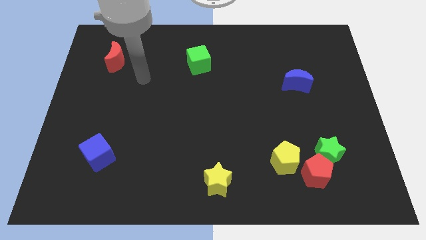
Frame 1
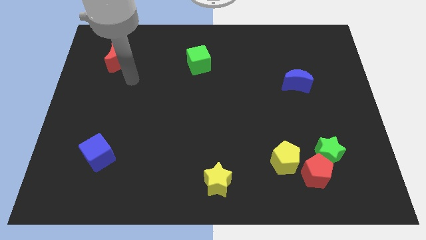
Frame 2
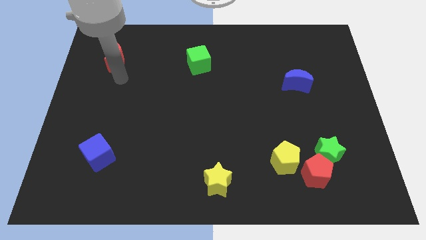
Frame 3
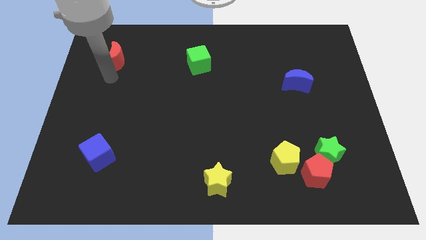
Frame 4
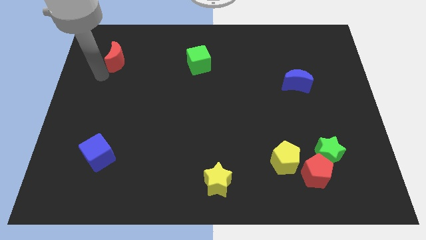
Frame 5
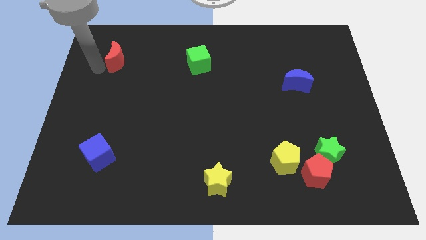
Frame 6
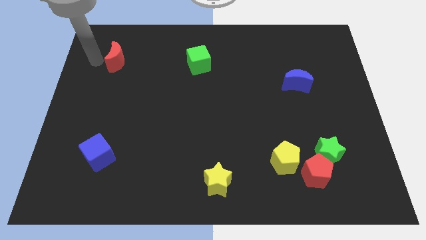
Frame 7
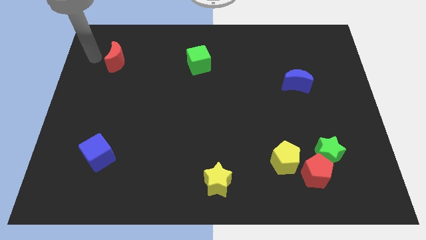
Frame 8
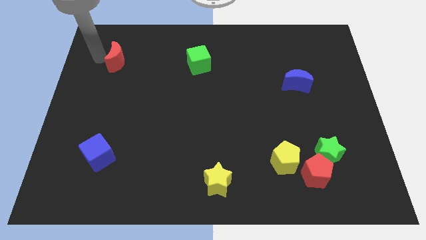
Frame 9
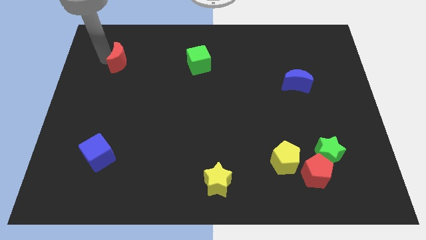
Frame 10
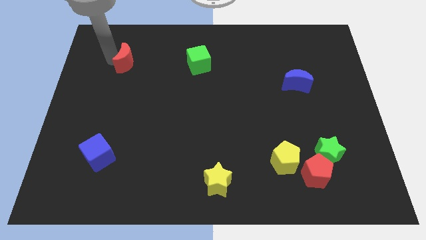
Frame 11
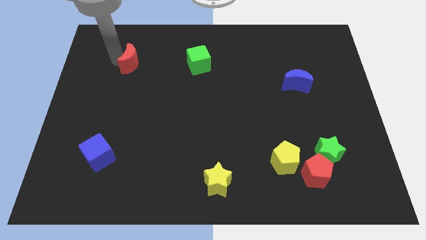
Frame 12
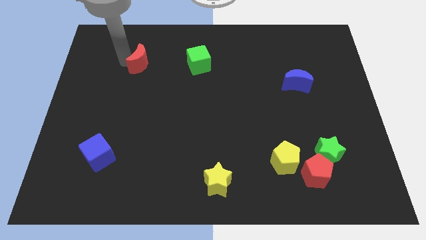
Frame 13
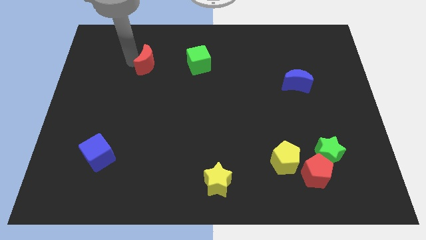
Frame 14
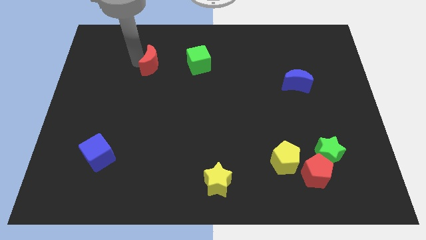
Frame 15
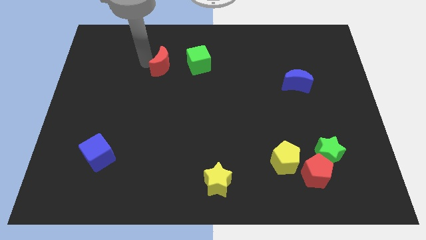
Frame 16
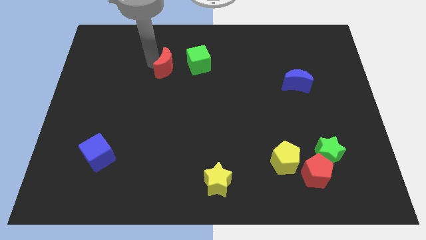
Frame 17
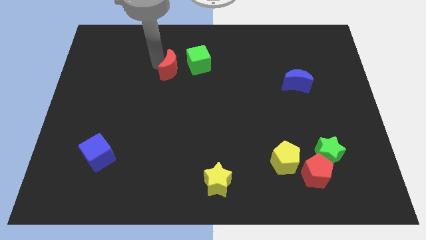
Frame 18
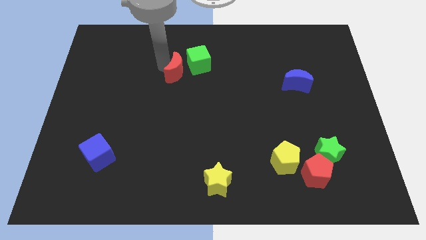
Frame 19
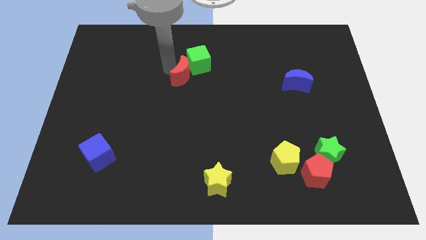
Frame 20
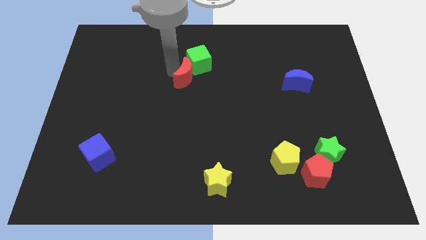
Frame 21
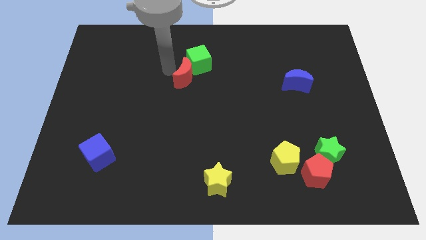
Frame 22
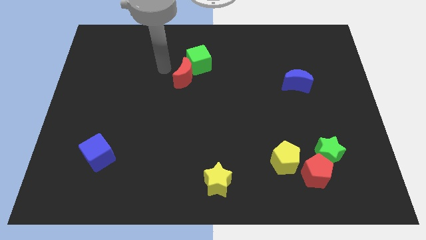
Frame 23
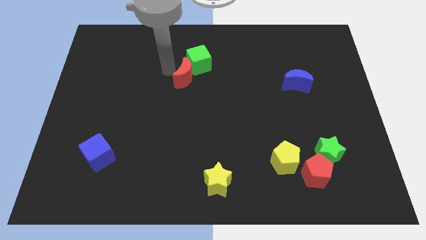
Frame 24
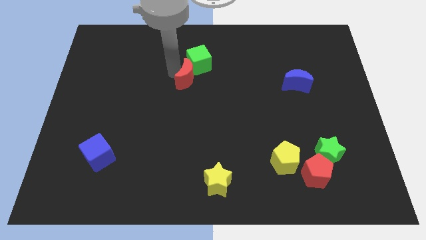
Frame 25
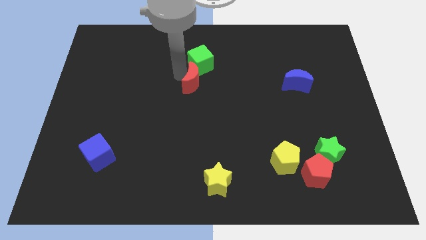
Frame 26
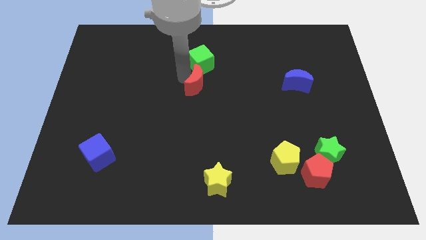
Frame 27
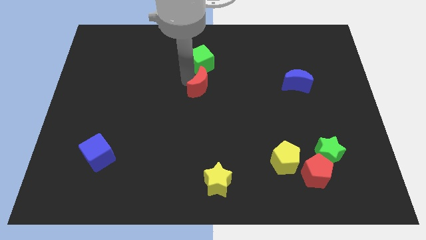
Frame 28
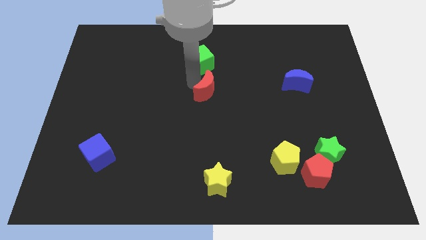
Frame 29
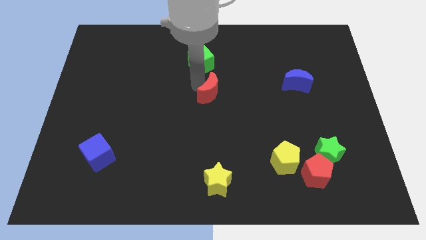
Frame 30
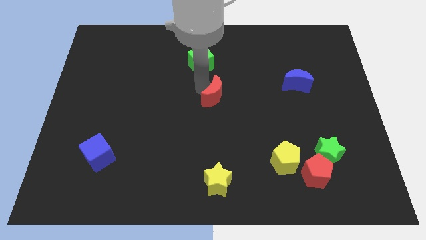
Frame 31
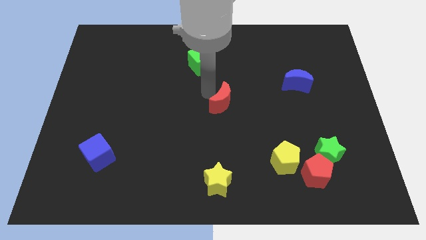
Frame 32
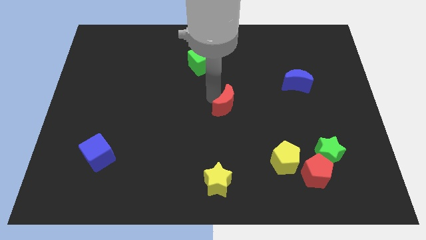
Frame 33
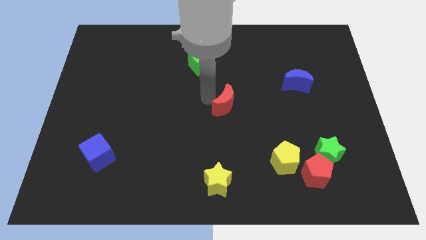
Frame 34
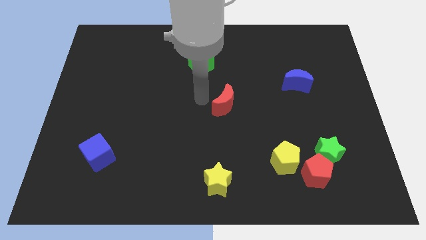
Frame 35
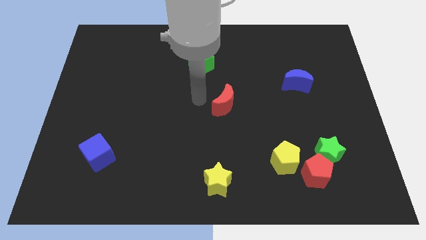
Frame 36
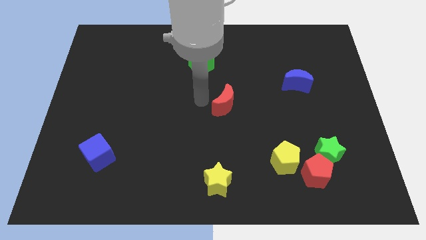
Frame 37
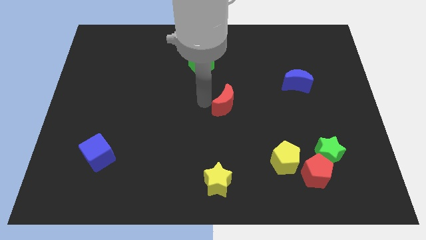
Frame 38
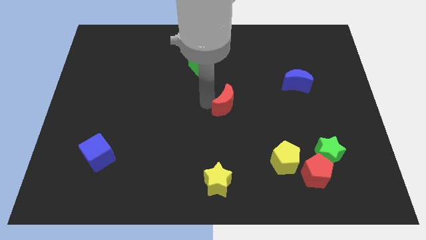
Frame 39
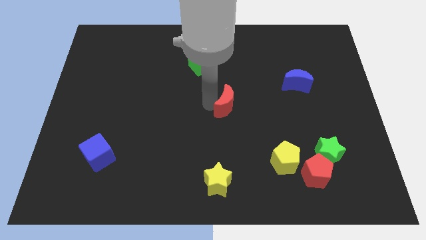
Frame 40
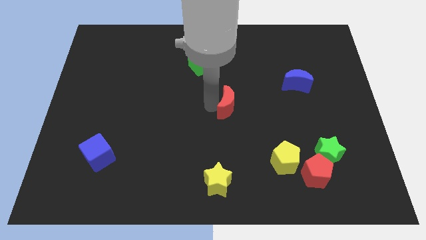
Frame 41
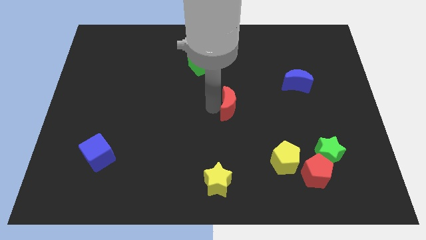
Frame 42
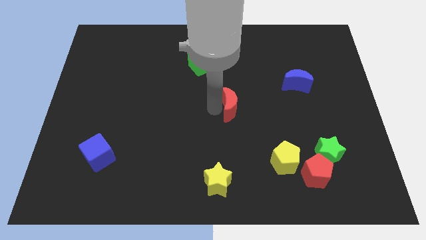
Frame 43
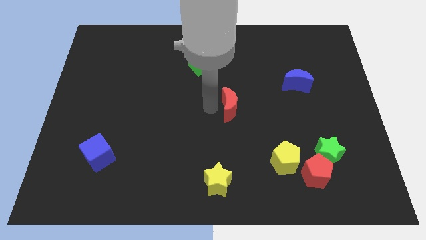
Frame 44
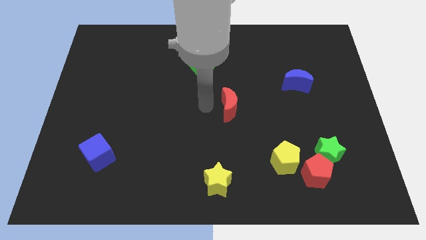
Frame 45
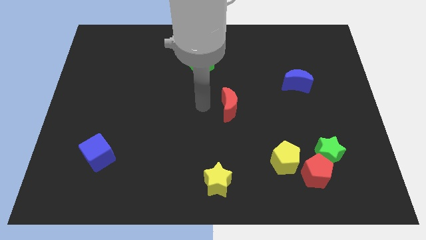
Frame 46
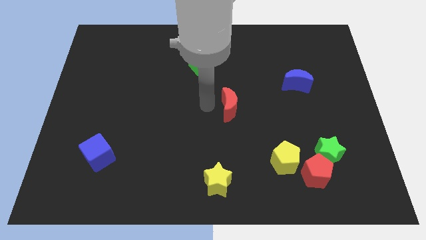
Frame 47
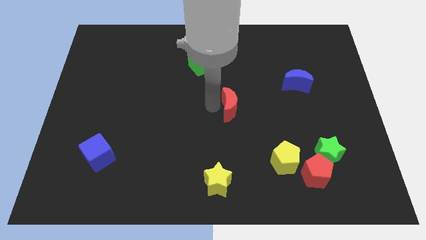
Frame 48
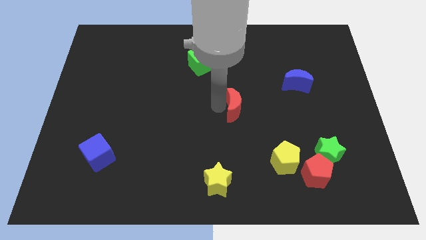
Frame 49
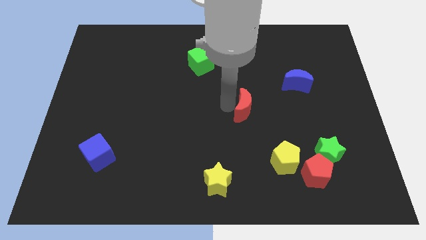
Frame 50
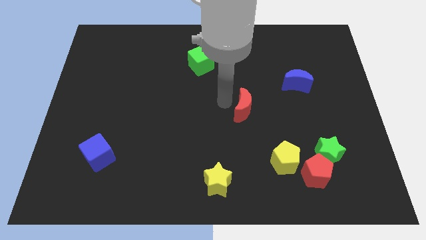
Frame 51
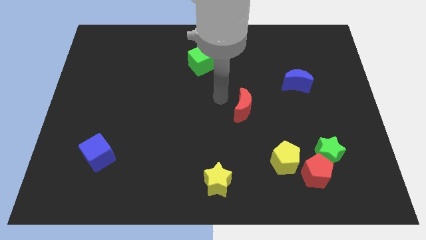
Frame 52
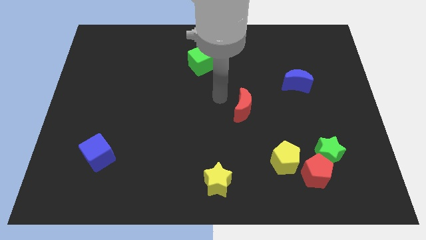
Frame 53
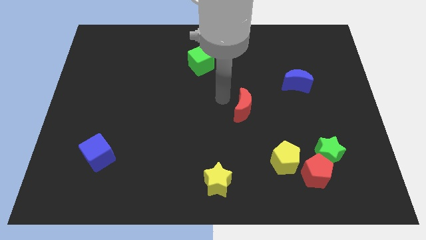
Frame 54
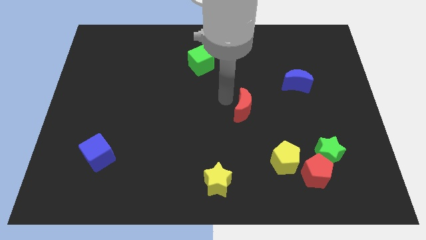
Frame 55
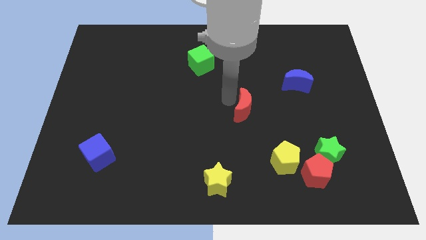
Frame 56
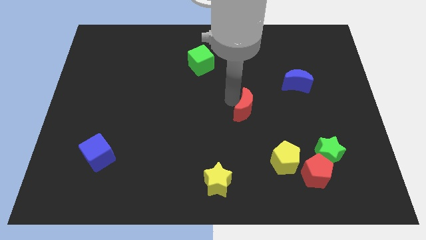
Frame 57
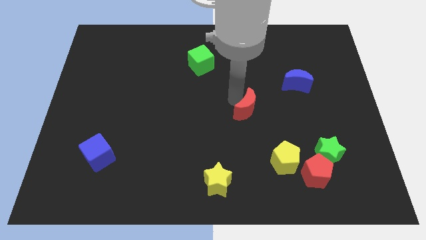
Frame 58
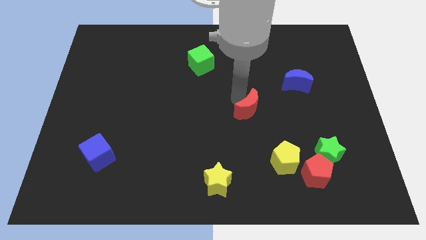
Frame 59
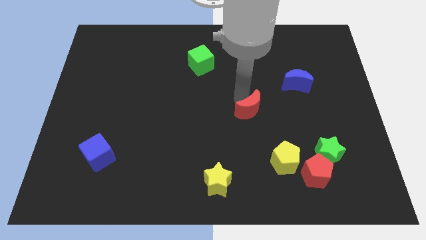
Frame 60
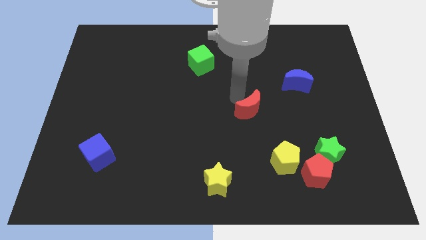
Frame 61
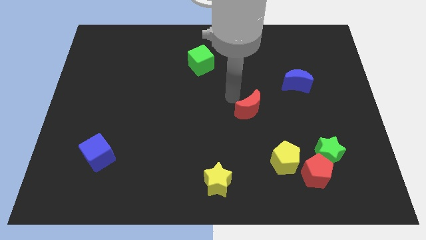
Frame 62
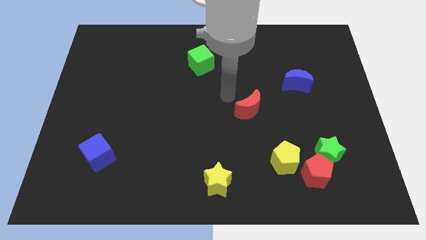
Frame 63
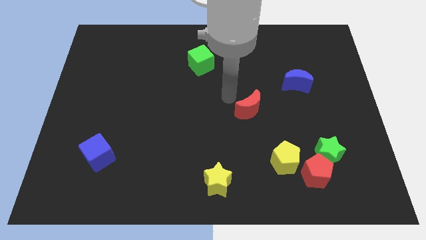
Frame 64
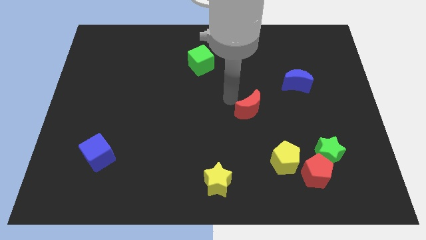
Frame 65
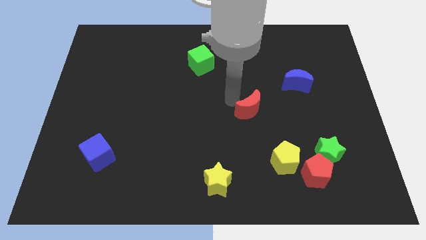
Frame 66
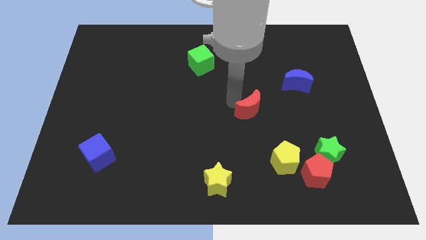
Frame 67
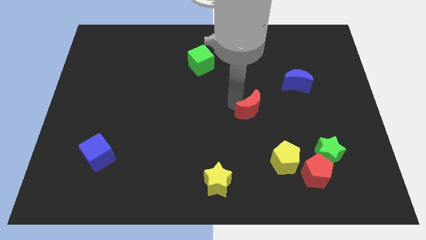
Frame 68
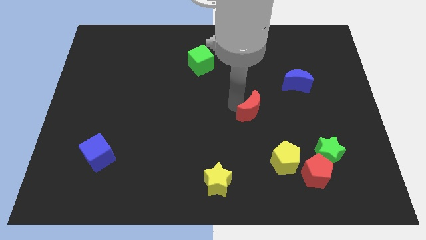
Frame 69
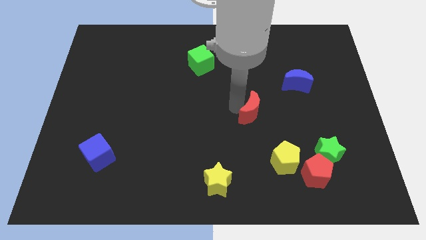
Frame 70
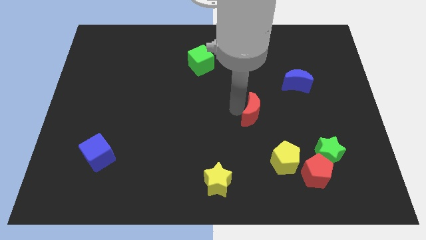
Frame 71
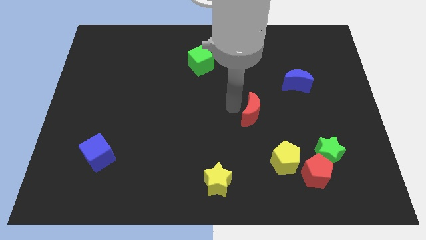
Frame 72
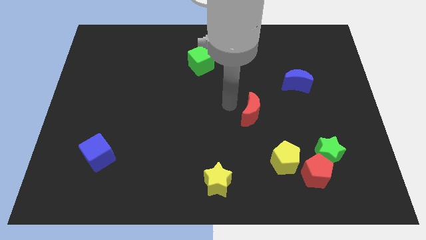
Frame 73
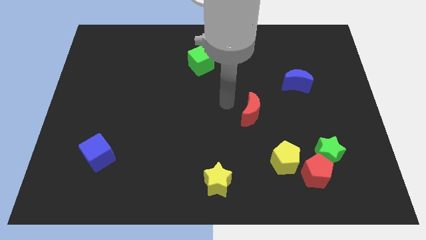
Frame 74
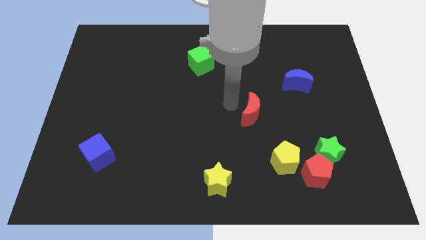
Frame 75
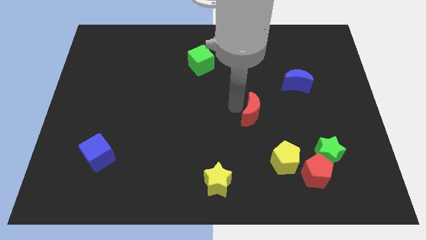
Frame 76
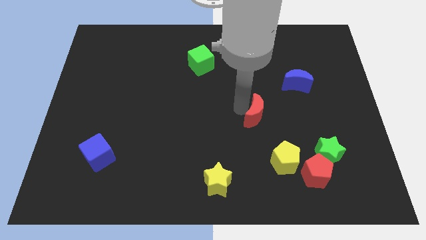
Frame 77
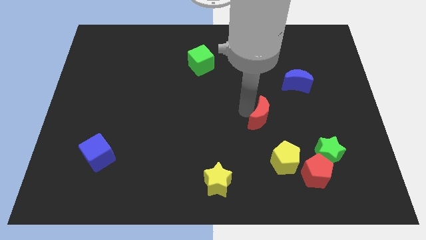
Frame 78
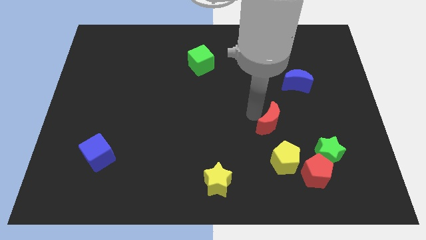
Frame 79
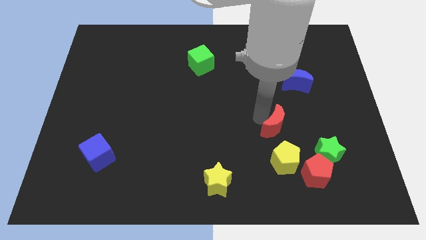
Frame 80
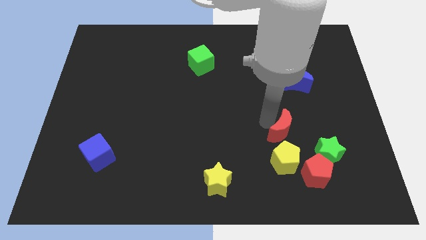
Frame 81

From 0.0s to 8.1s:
push the red moon to the top left side of the green star
